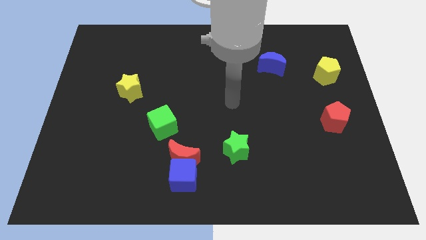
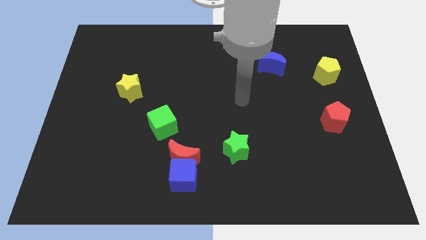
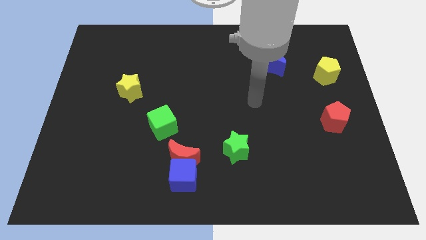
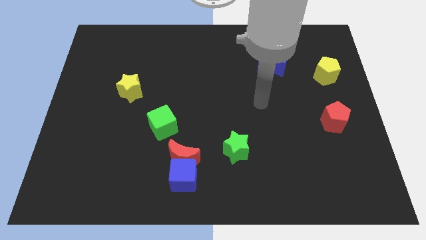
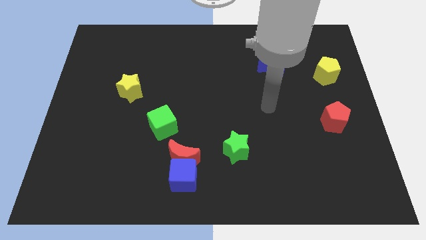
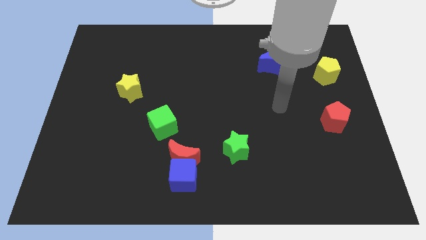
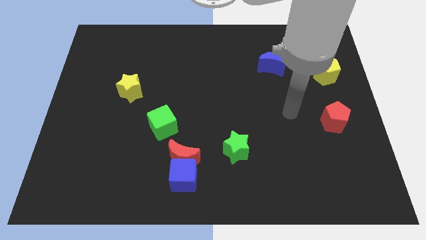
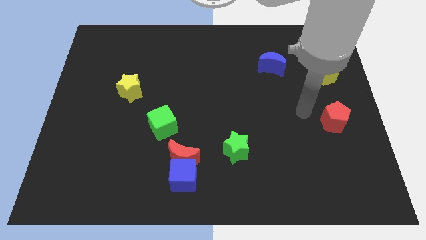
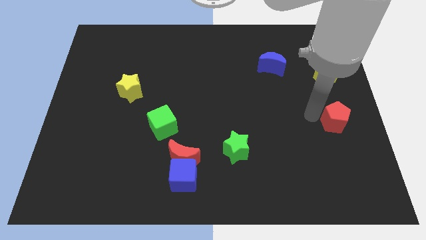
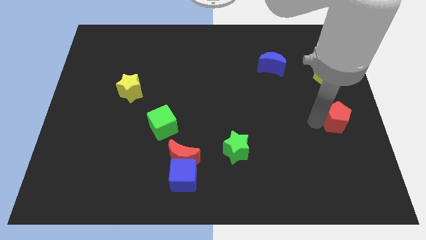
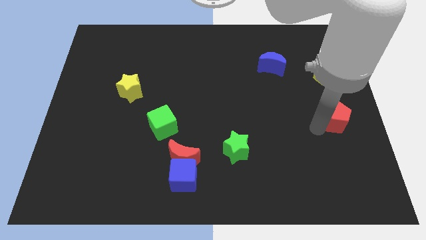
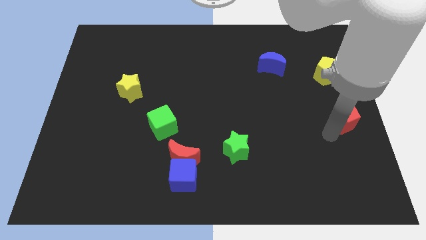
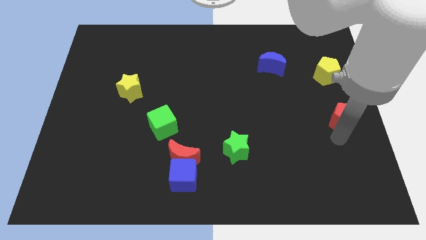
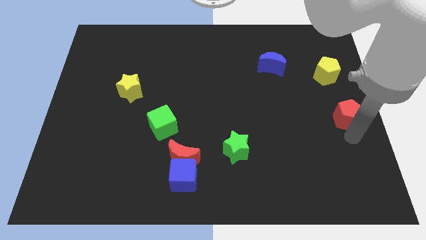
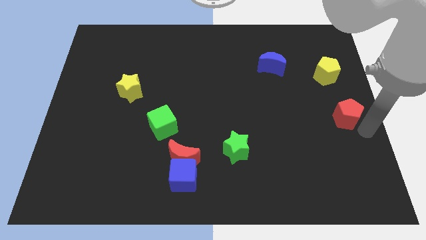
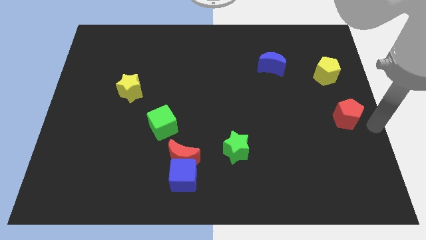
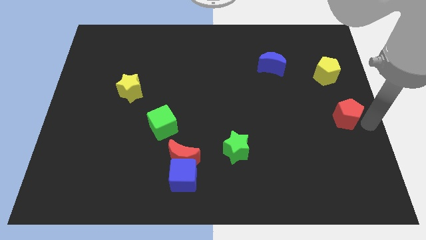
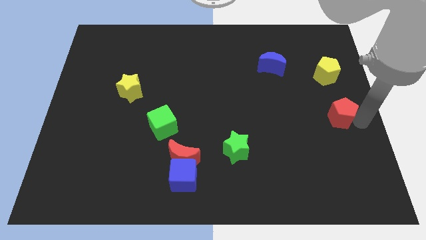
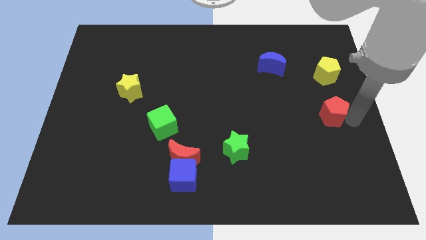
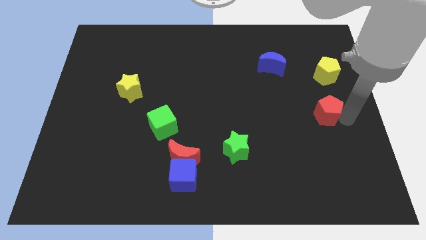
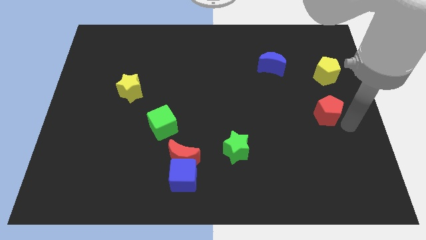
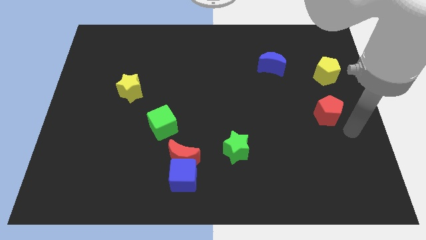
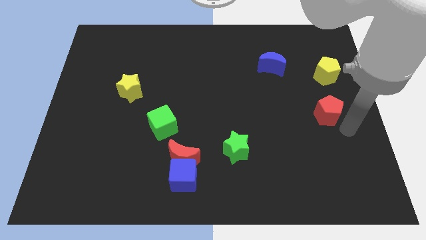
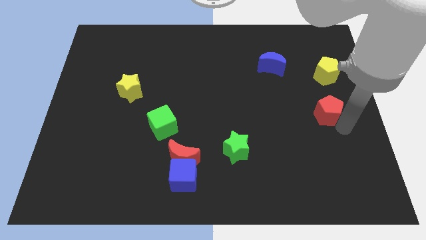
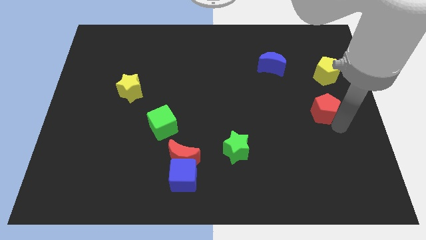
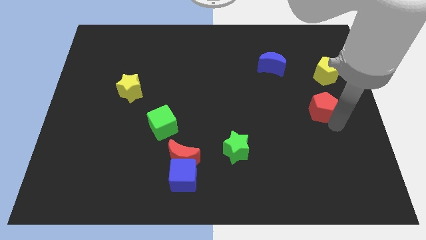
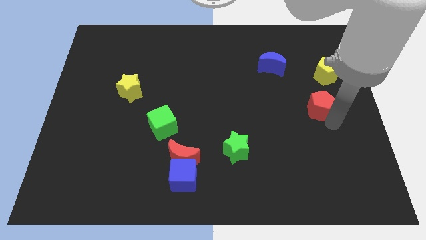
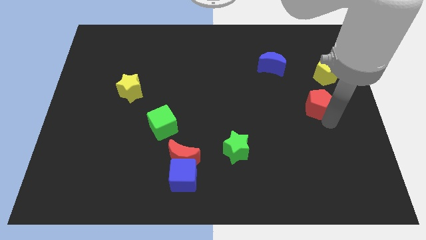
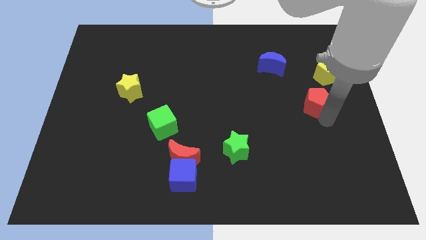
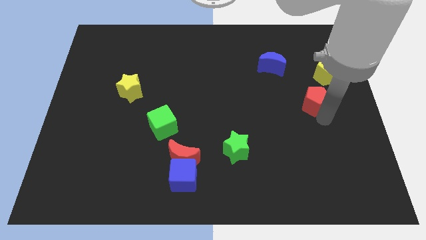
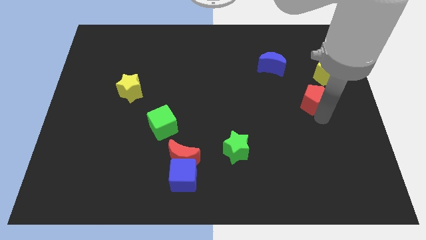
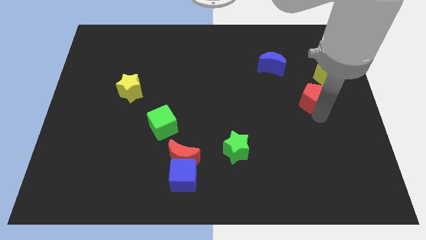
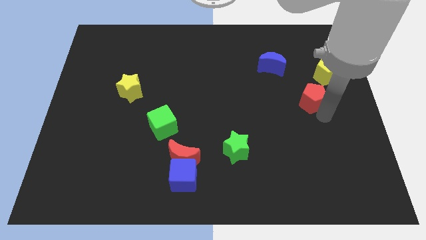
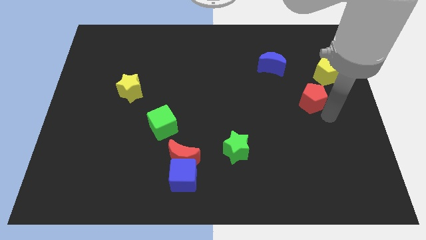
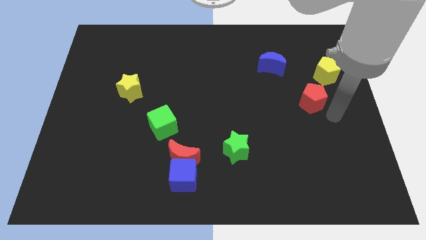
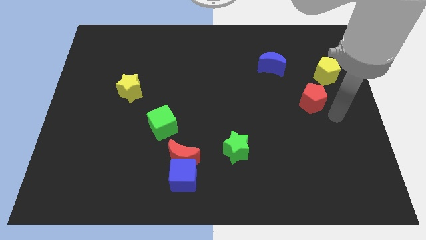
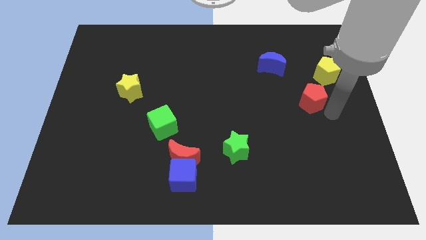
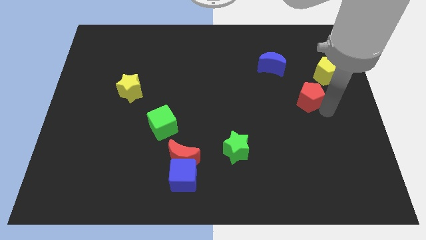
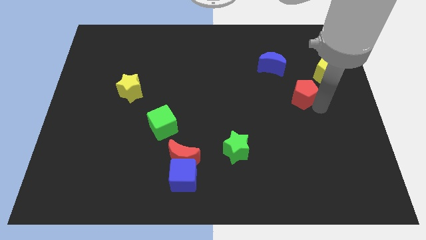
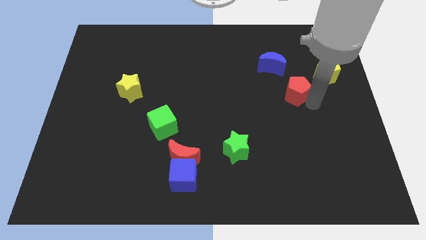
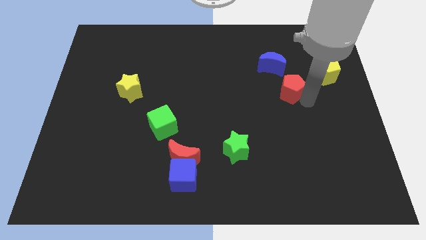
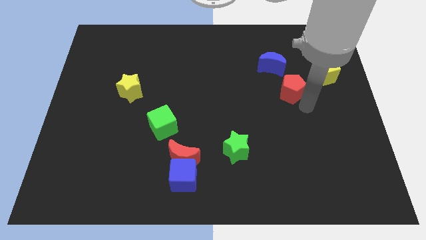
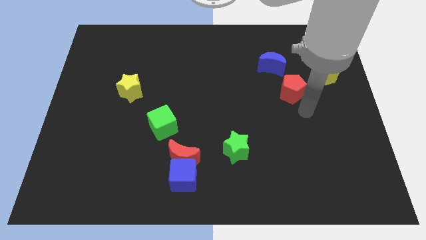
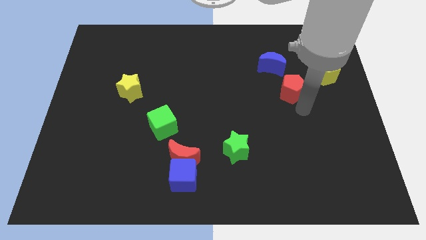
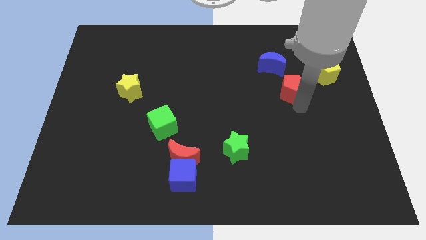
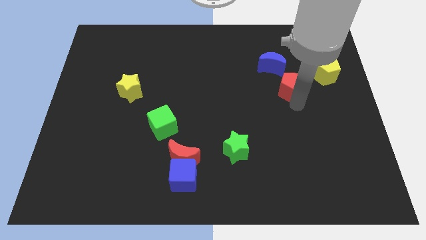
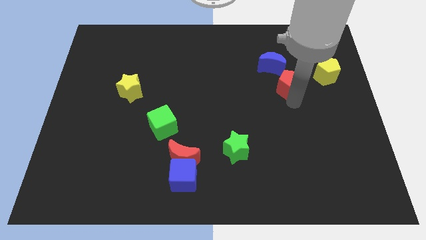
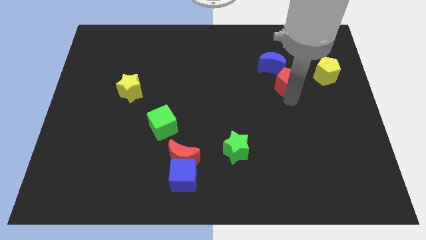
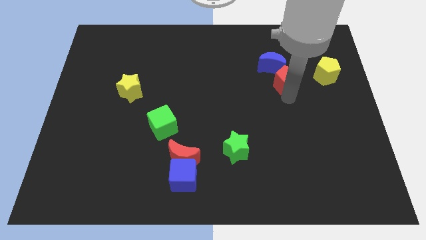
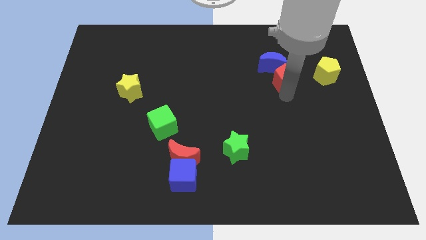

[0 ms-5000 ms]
slide the red pentagon to the blue moon

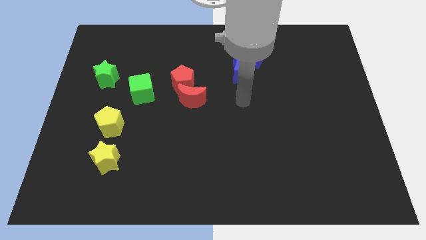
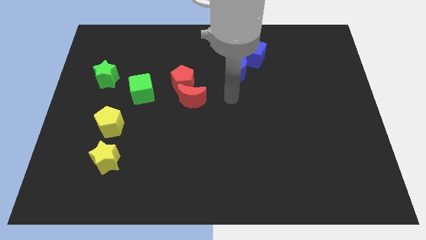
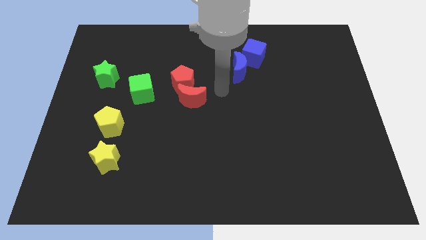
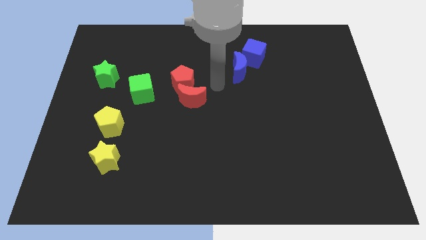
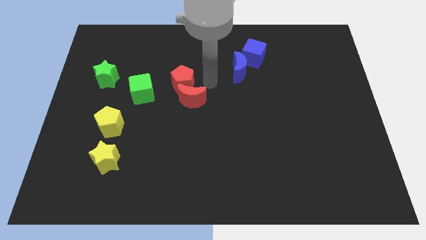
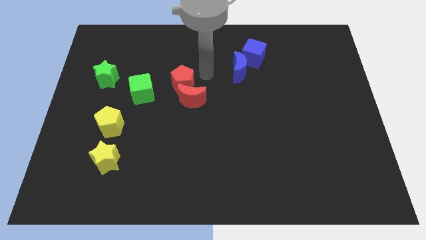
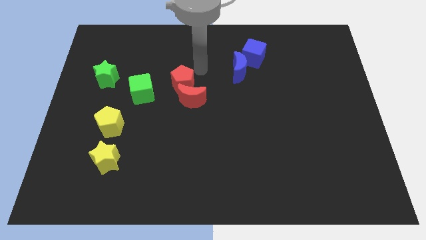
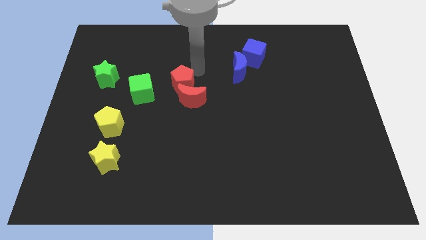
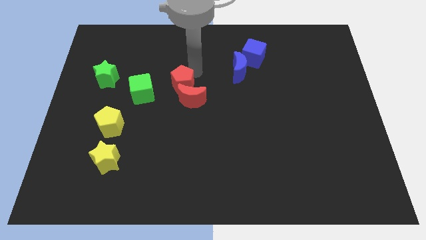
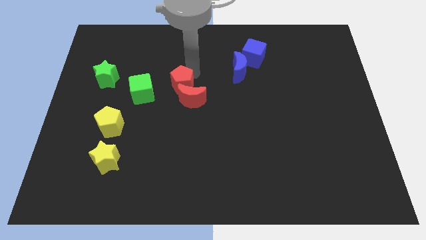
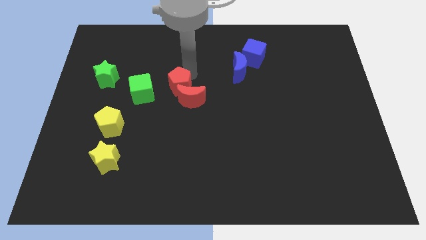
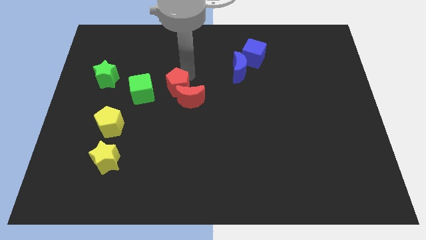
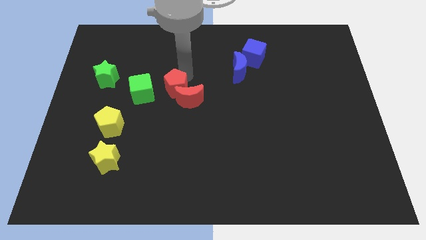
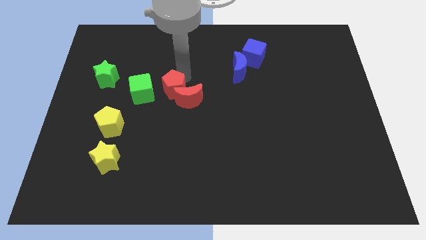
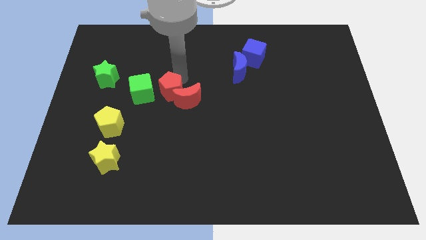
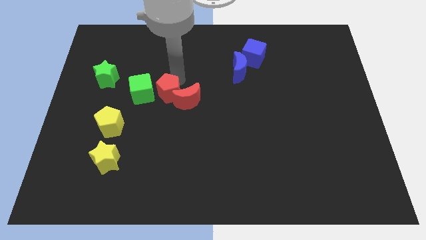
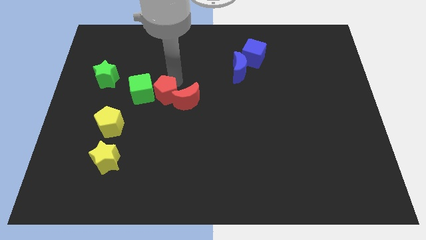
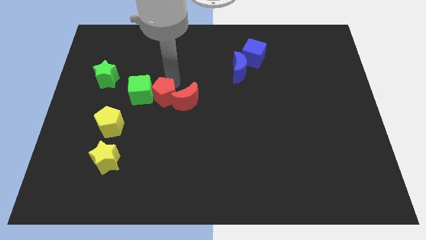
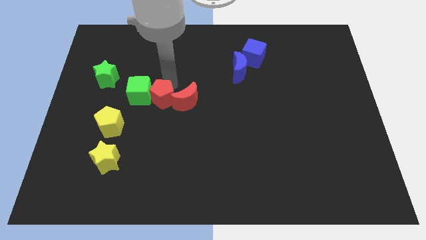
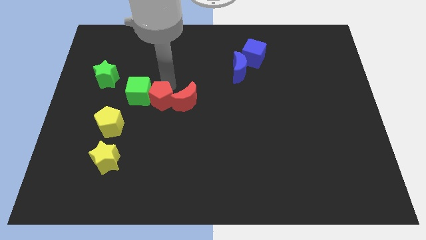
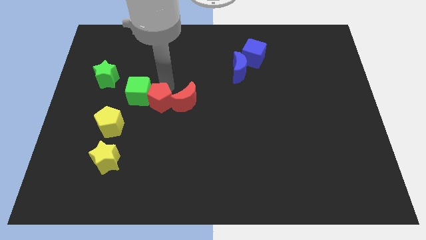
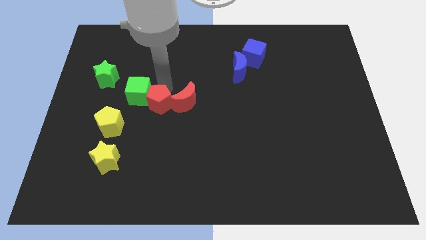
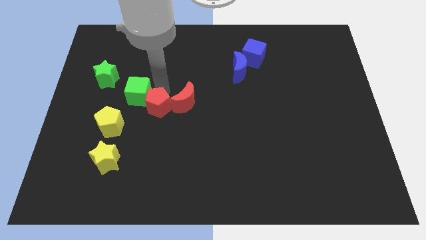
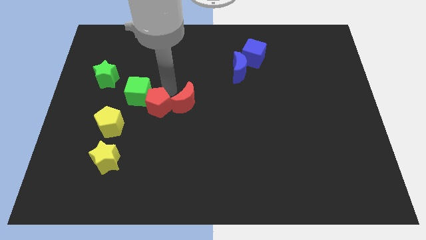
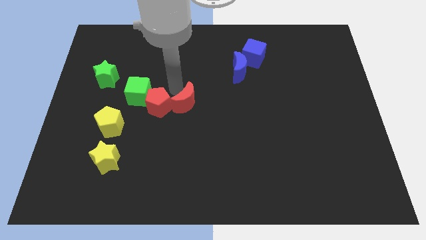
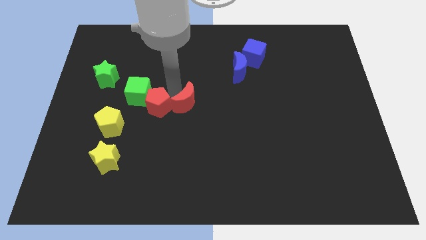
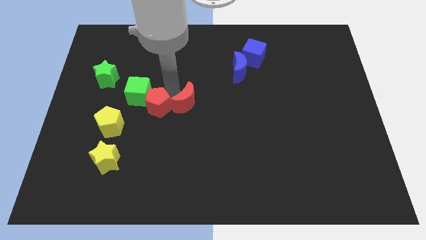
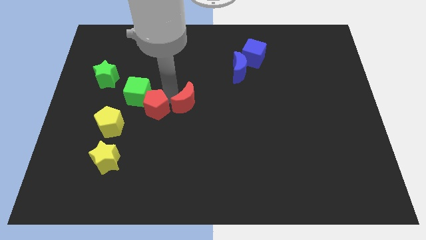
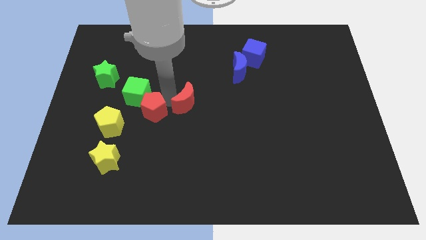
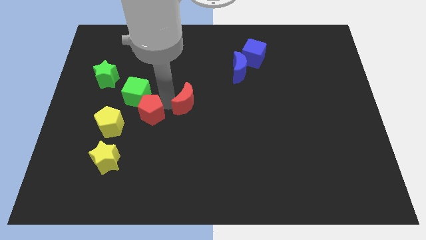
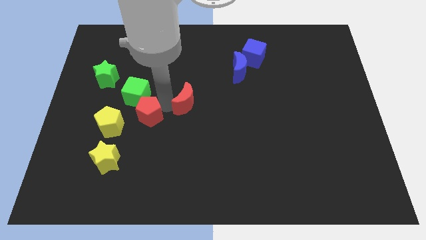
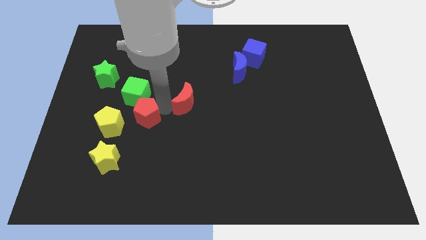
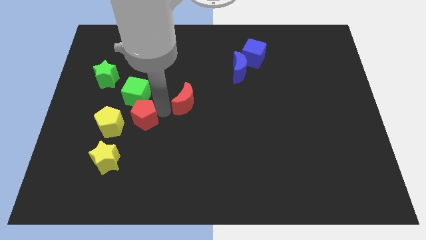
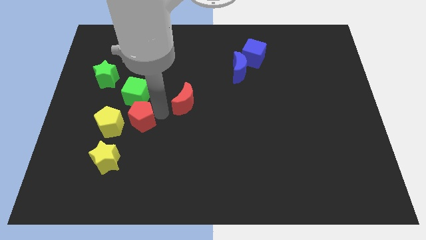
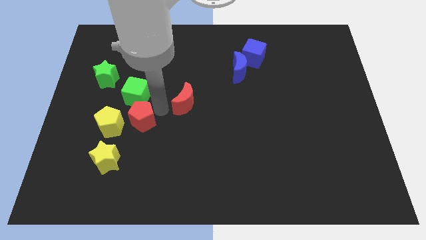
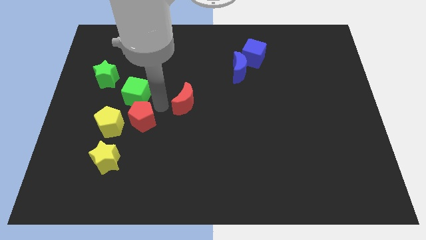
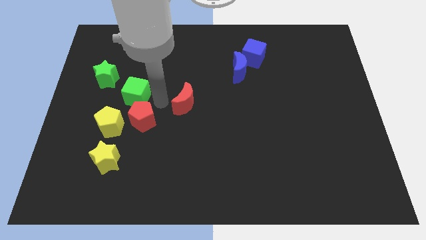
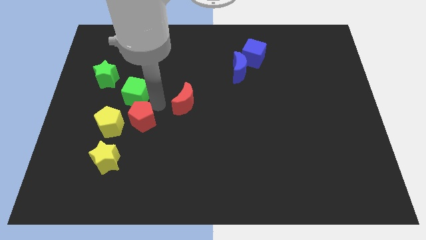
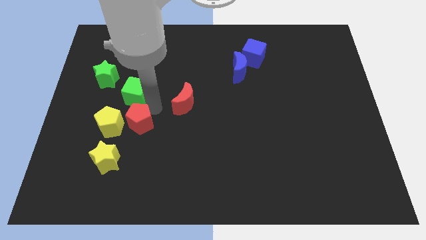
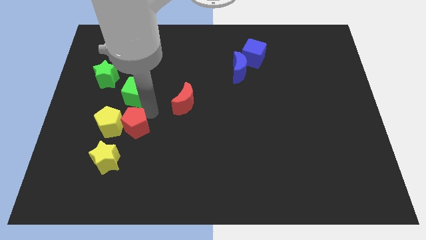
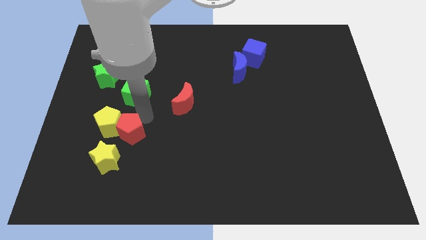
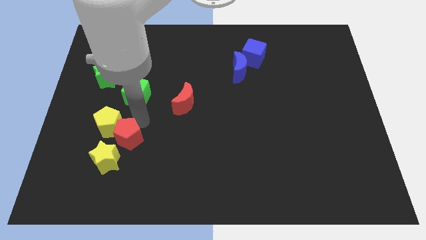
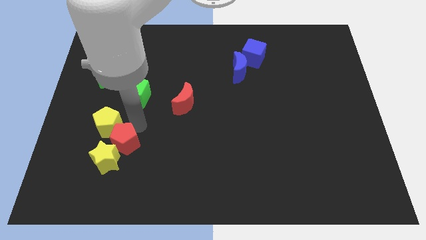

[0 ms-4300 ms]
move the red pentagon close to the yellow star
